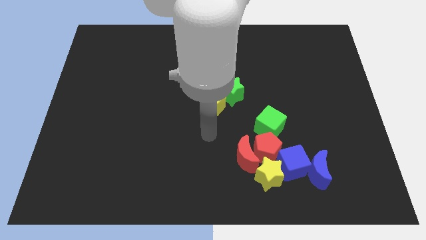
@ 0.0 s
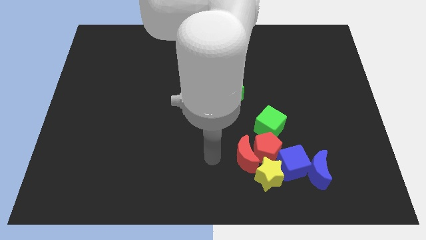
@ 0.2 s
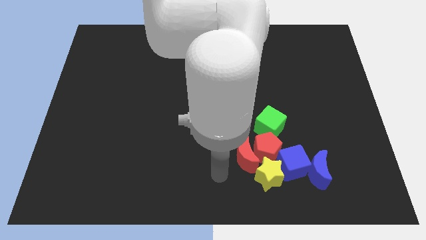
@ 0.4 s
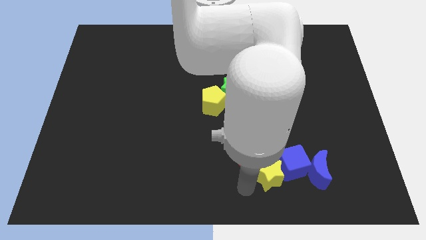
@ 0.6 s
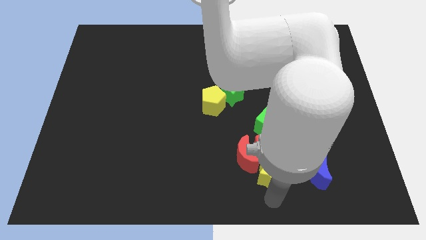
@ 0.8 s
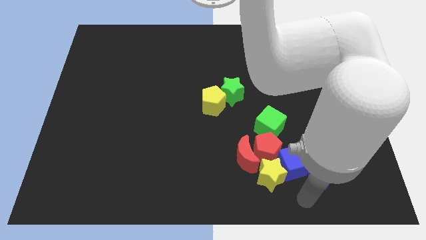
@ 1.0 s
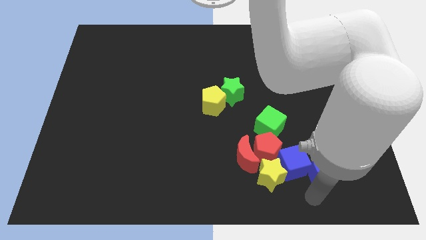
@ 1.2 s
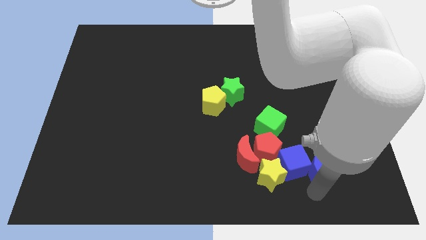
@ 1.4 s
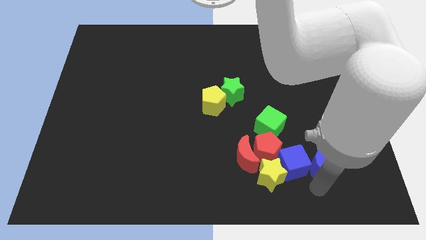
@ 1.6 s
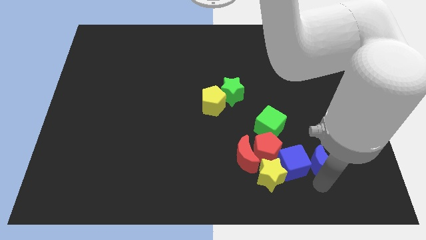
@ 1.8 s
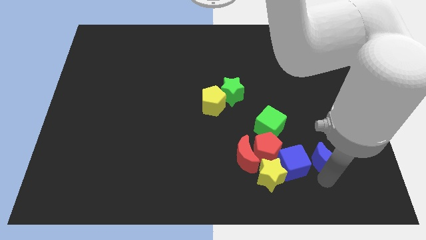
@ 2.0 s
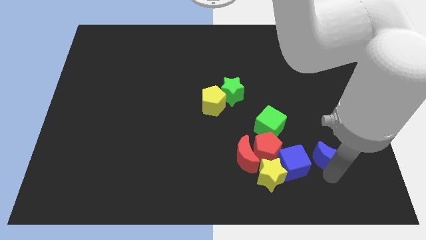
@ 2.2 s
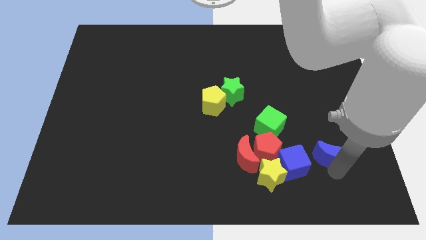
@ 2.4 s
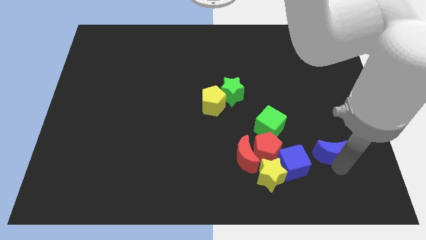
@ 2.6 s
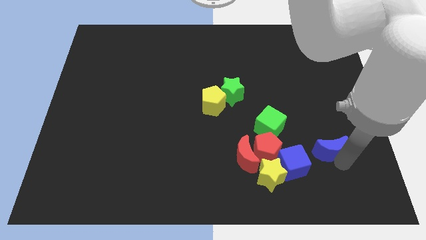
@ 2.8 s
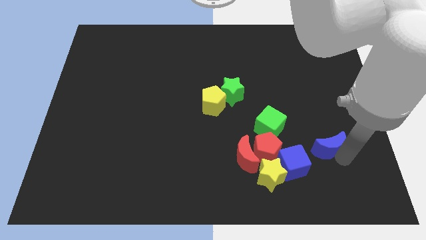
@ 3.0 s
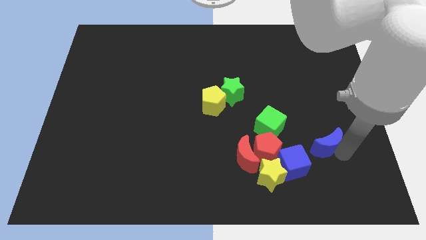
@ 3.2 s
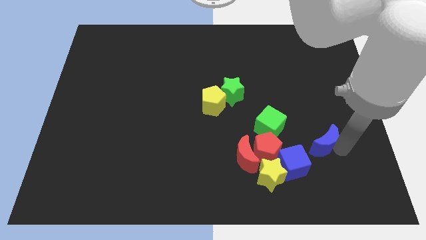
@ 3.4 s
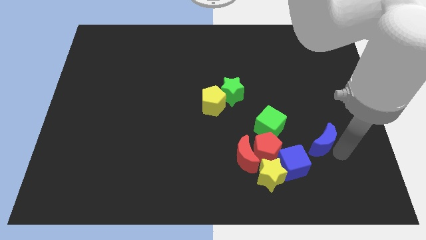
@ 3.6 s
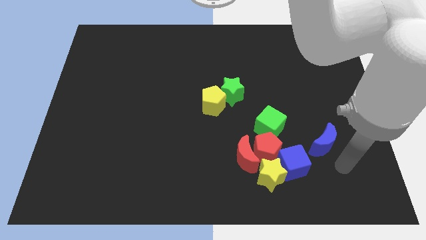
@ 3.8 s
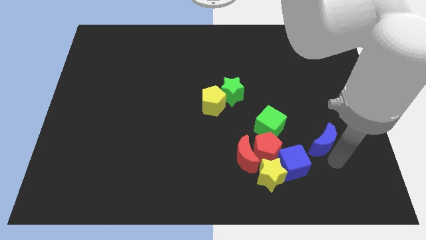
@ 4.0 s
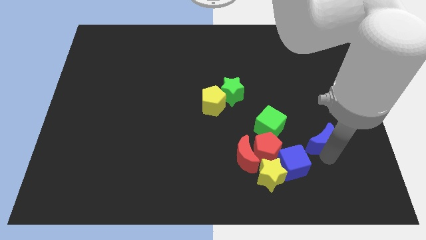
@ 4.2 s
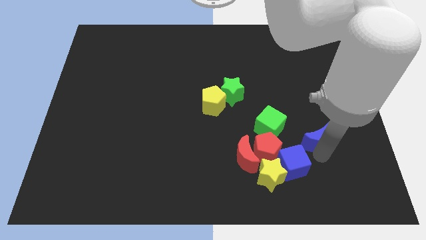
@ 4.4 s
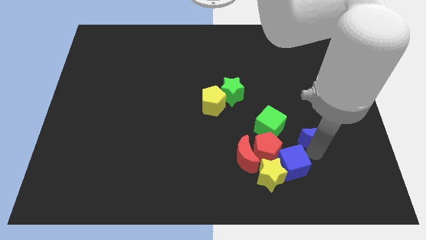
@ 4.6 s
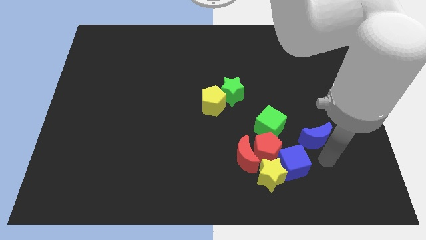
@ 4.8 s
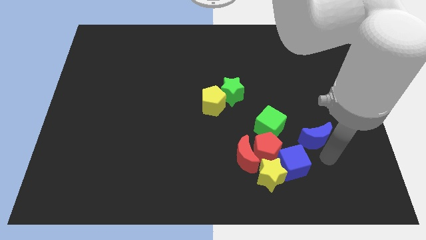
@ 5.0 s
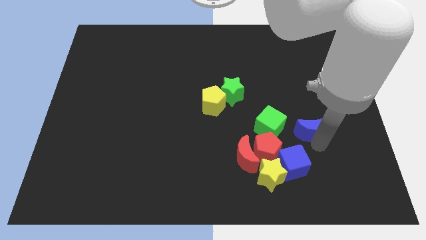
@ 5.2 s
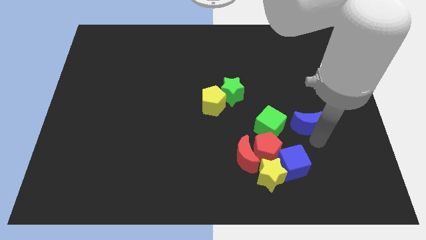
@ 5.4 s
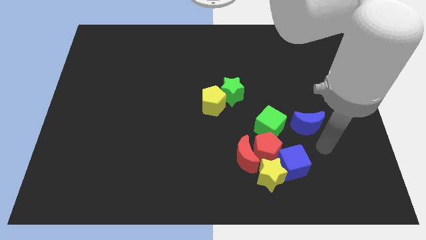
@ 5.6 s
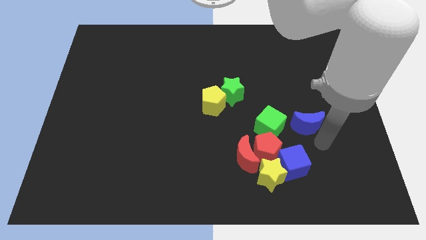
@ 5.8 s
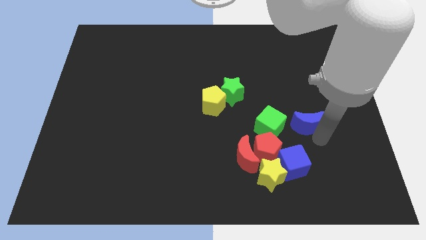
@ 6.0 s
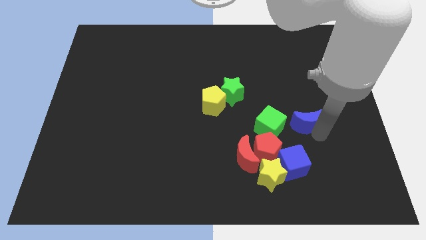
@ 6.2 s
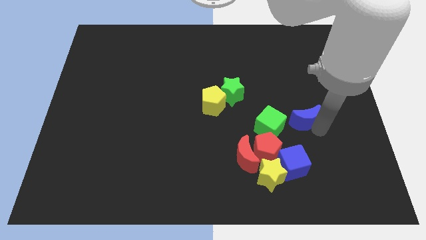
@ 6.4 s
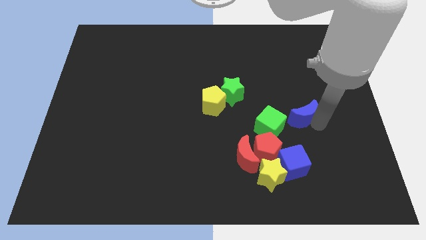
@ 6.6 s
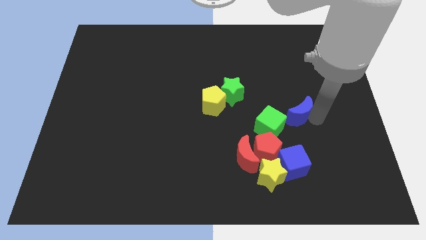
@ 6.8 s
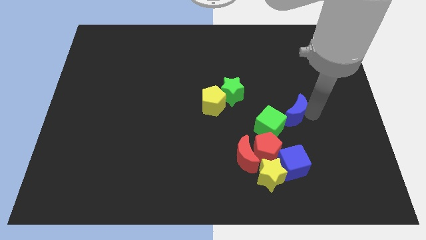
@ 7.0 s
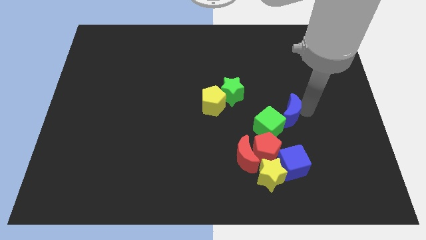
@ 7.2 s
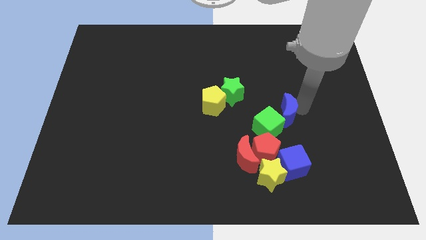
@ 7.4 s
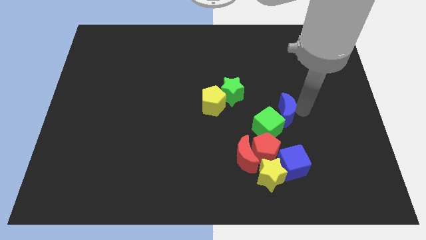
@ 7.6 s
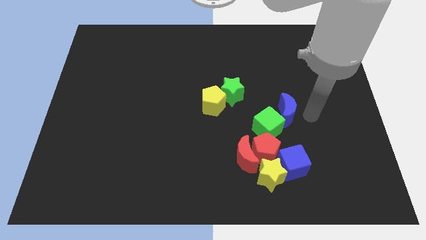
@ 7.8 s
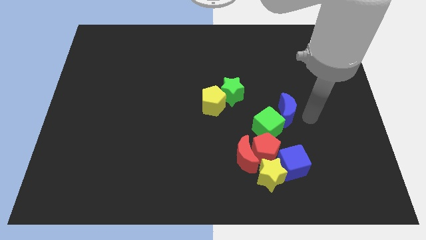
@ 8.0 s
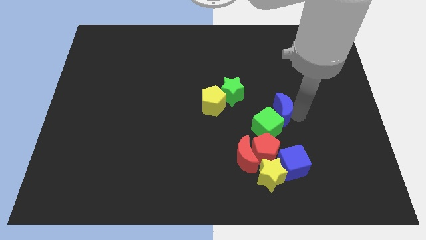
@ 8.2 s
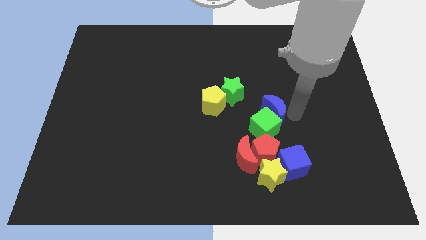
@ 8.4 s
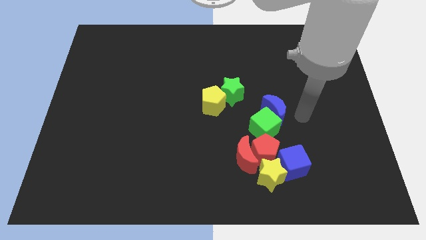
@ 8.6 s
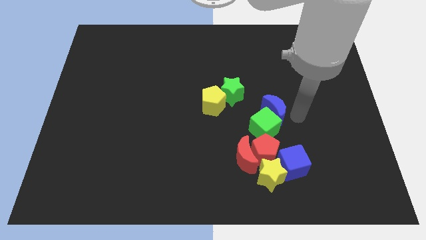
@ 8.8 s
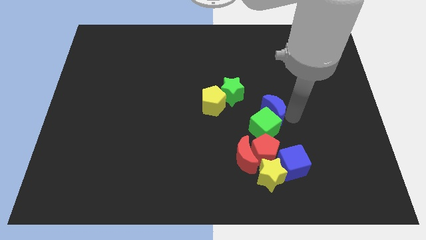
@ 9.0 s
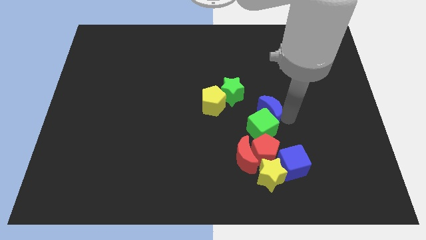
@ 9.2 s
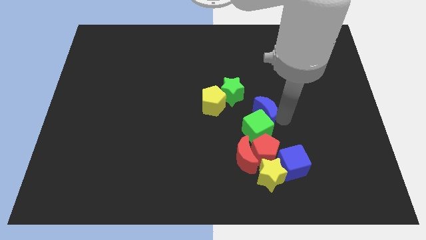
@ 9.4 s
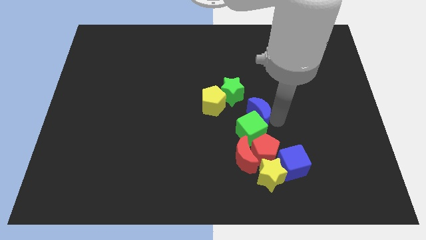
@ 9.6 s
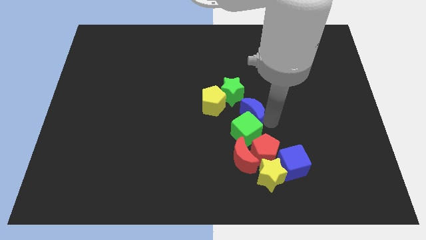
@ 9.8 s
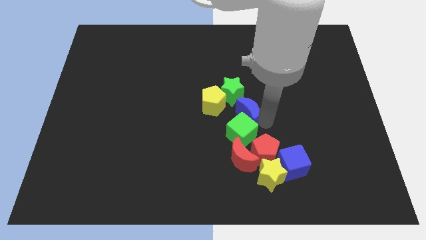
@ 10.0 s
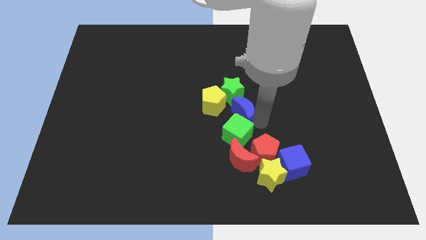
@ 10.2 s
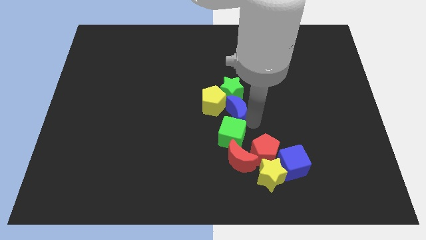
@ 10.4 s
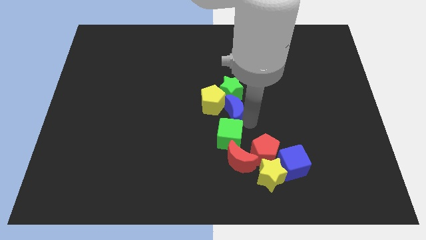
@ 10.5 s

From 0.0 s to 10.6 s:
move the blue moon next to the yellow pentagon

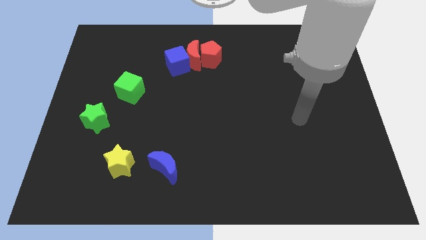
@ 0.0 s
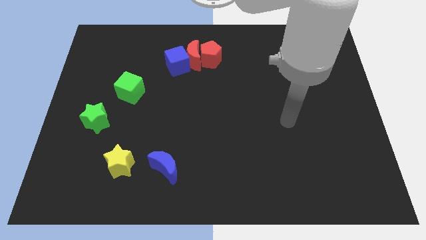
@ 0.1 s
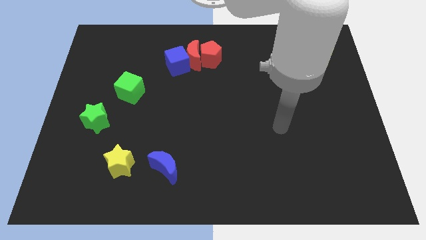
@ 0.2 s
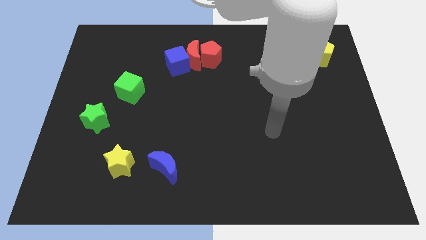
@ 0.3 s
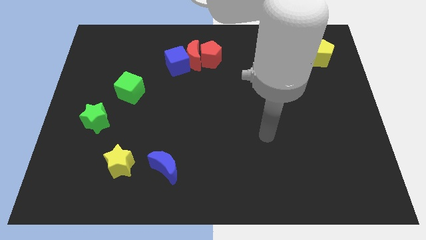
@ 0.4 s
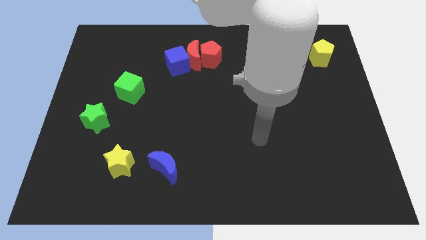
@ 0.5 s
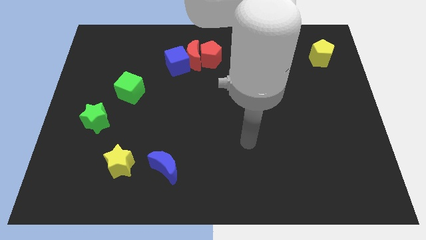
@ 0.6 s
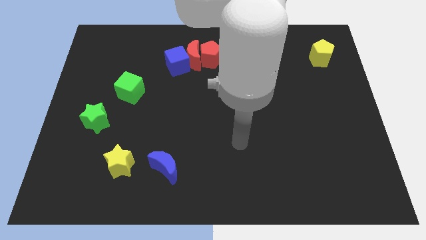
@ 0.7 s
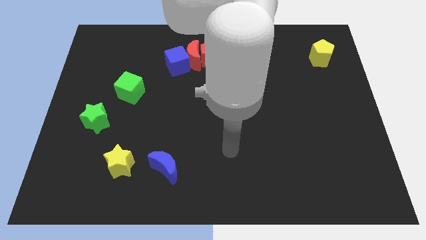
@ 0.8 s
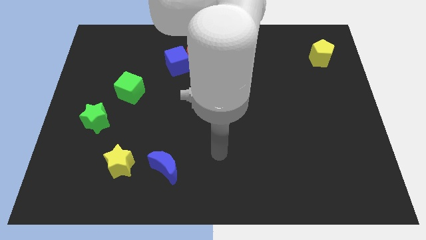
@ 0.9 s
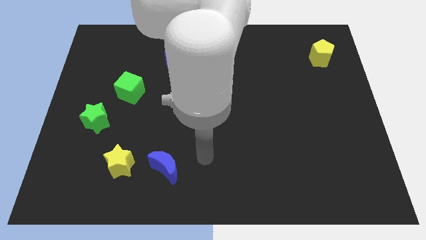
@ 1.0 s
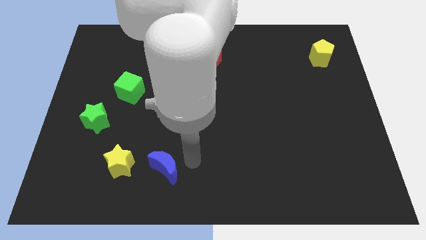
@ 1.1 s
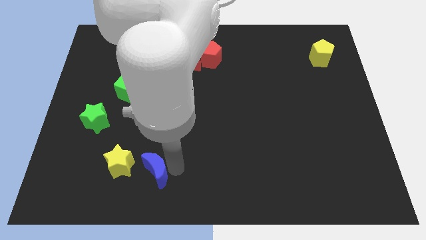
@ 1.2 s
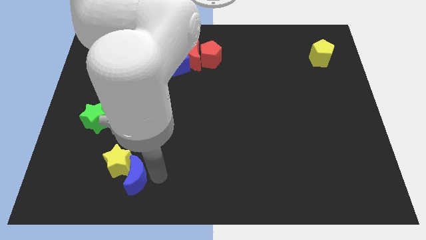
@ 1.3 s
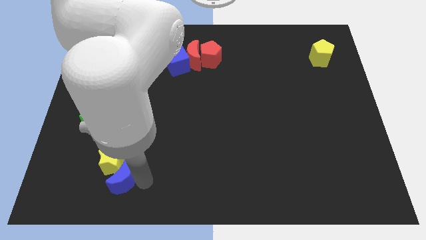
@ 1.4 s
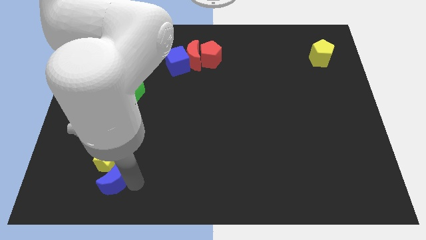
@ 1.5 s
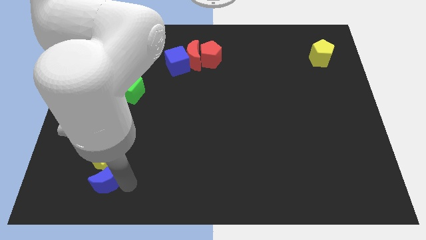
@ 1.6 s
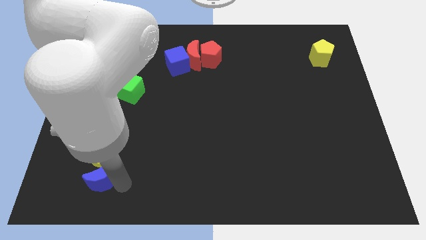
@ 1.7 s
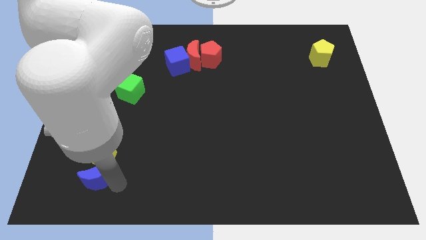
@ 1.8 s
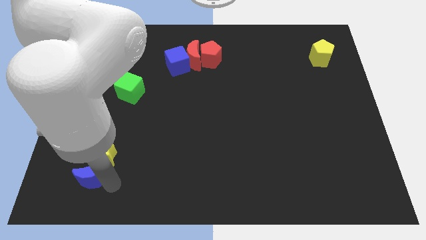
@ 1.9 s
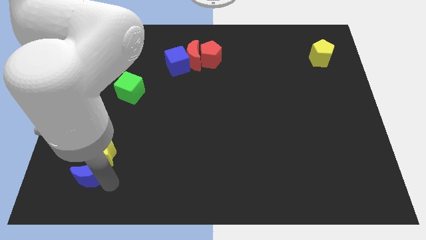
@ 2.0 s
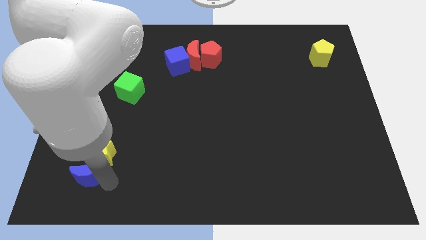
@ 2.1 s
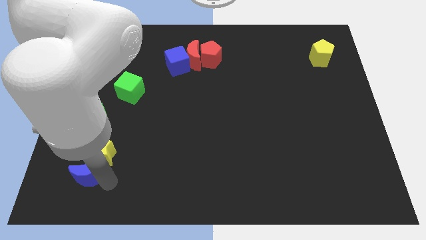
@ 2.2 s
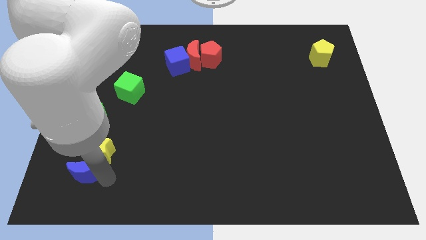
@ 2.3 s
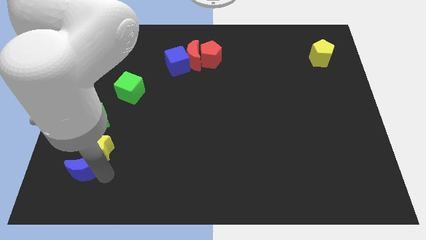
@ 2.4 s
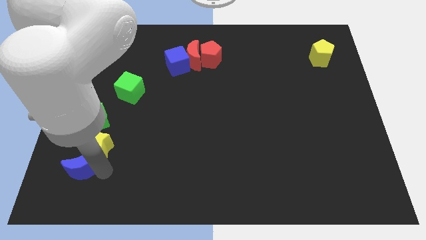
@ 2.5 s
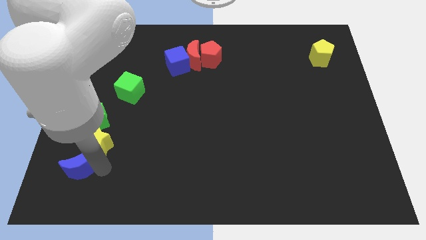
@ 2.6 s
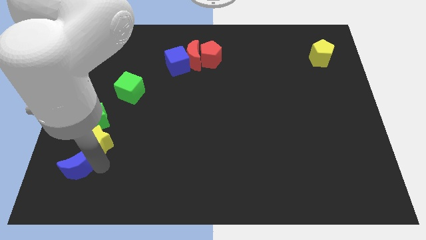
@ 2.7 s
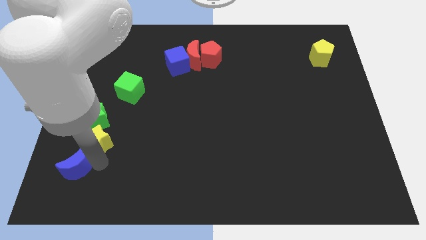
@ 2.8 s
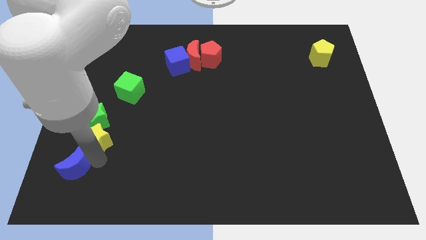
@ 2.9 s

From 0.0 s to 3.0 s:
push the yellow star towards the green star

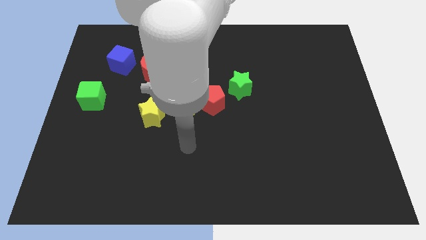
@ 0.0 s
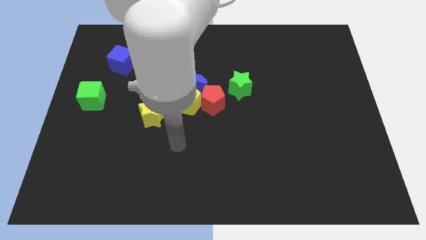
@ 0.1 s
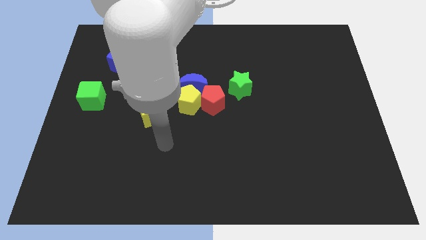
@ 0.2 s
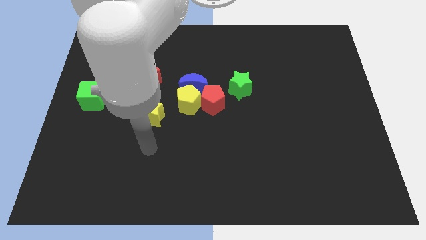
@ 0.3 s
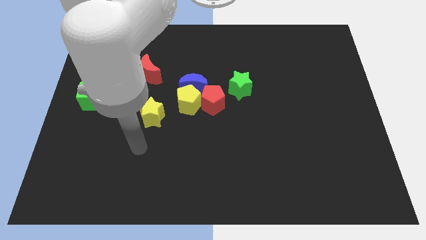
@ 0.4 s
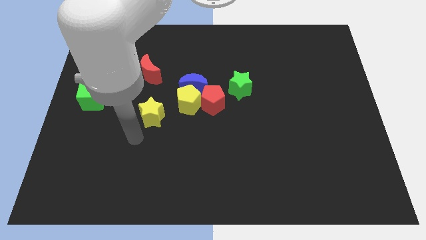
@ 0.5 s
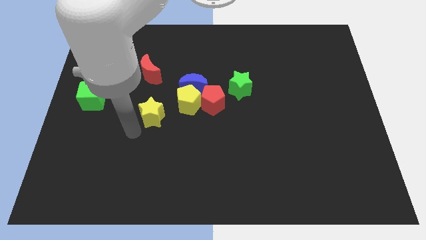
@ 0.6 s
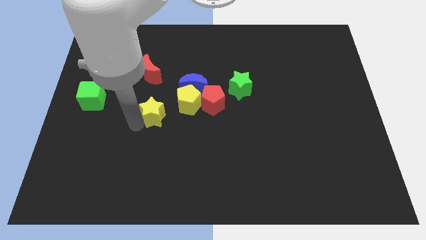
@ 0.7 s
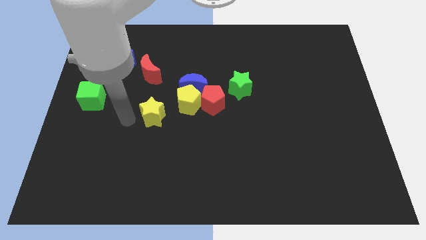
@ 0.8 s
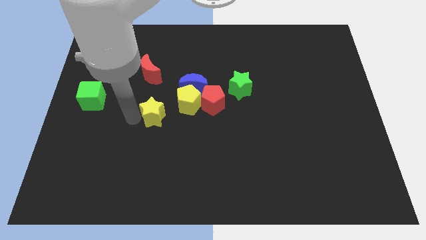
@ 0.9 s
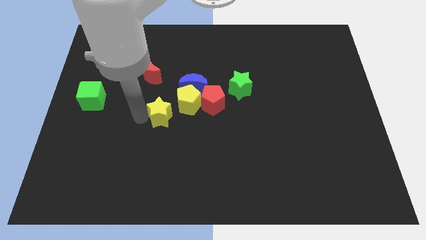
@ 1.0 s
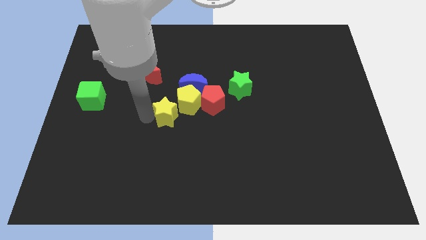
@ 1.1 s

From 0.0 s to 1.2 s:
move the yellow star next to the yellow pentagon
